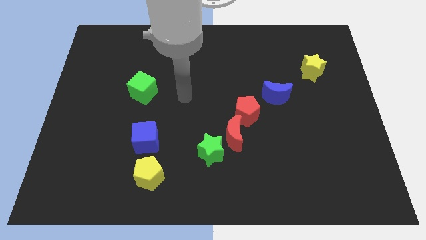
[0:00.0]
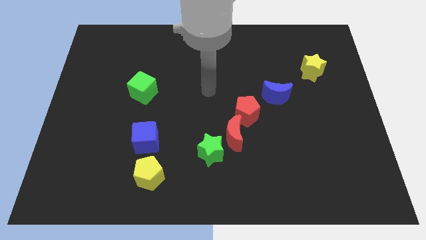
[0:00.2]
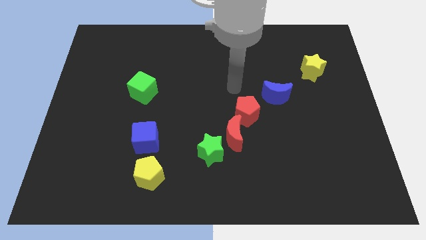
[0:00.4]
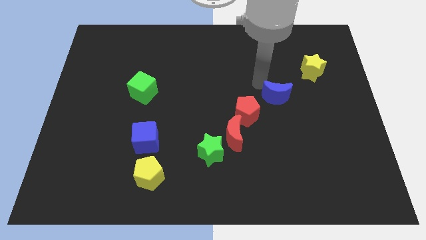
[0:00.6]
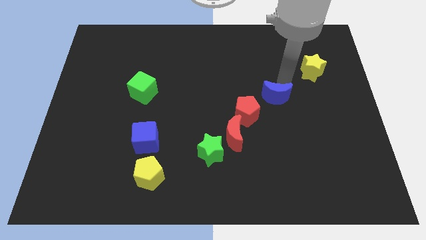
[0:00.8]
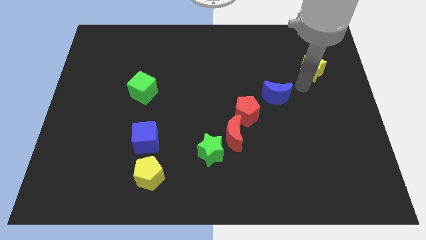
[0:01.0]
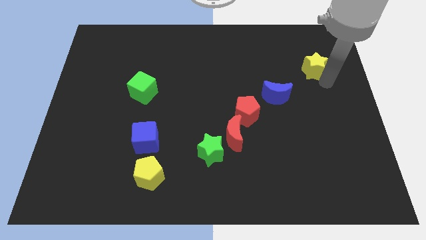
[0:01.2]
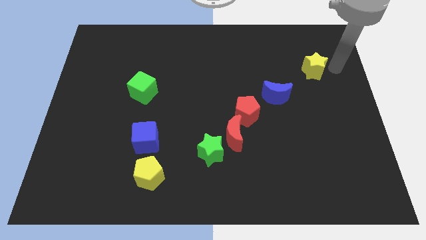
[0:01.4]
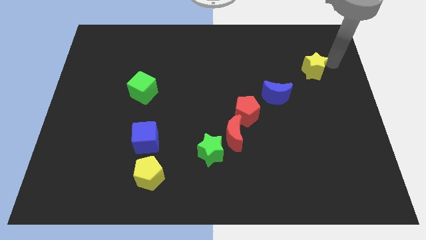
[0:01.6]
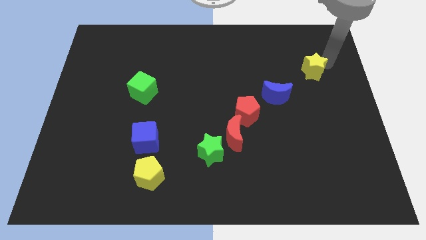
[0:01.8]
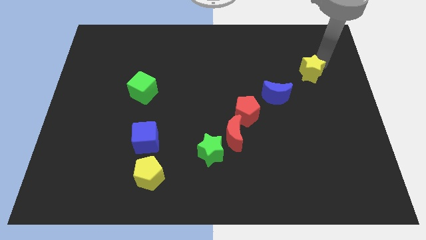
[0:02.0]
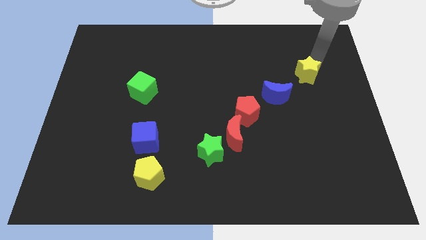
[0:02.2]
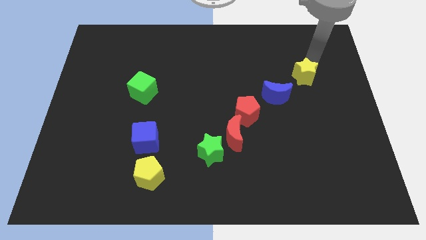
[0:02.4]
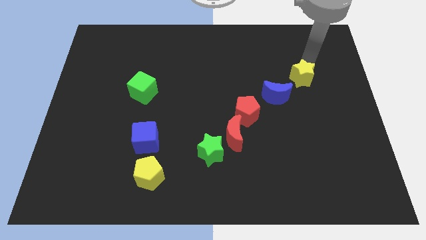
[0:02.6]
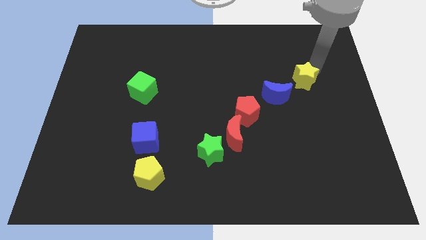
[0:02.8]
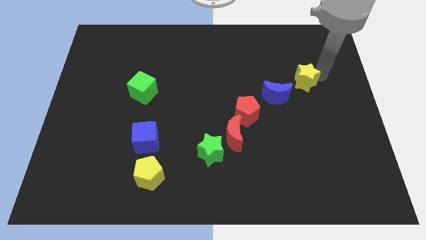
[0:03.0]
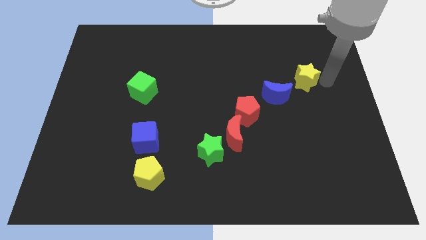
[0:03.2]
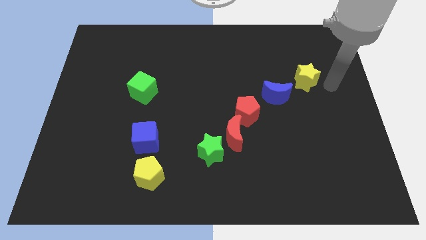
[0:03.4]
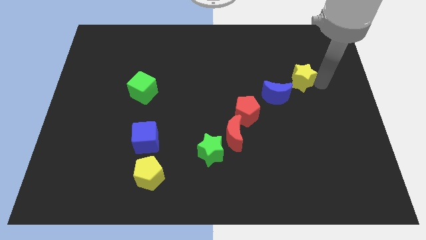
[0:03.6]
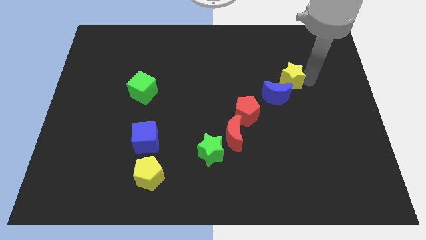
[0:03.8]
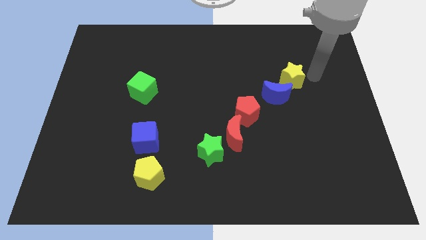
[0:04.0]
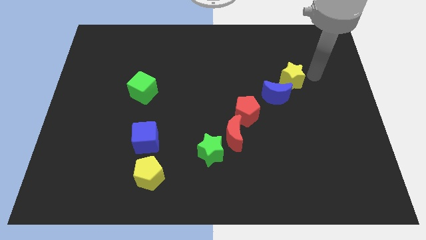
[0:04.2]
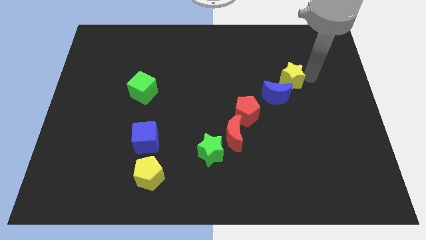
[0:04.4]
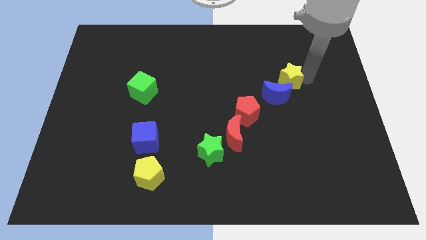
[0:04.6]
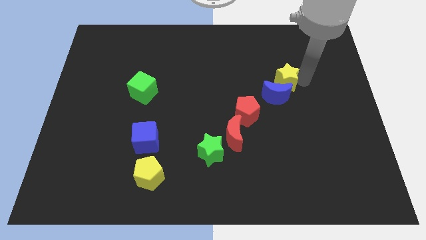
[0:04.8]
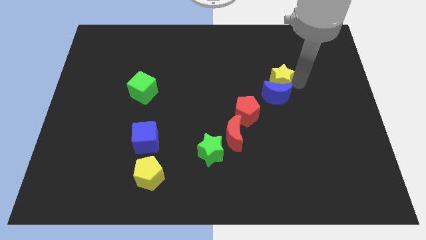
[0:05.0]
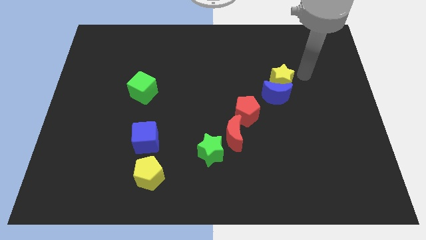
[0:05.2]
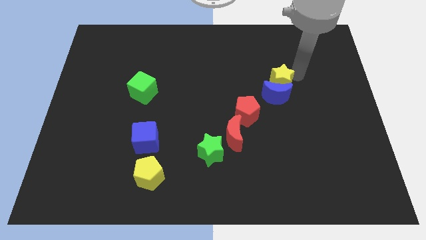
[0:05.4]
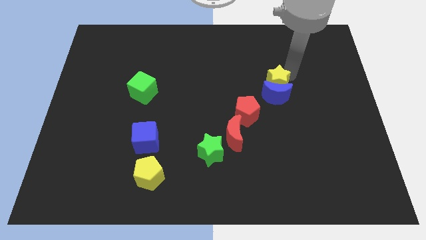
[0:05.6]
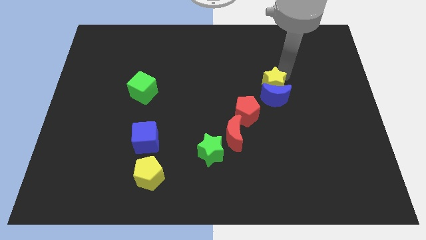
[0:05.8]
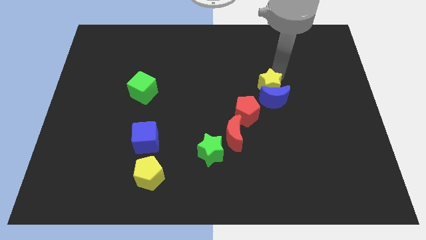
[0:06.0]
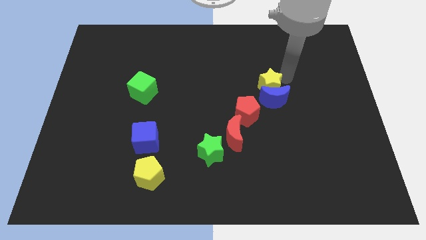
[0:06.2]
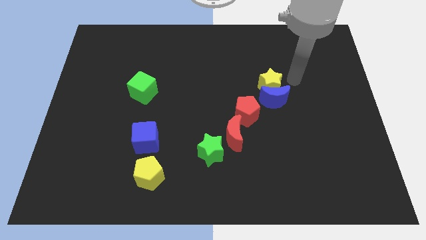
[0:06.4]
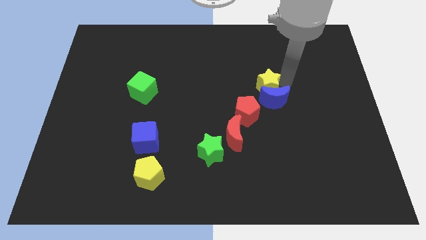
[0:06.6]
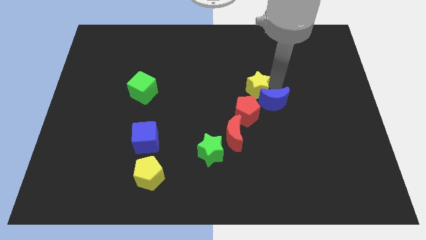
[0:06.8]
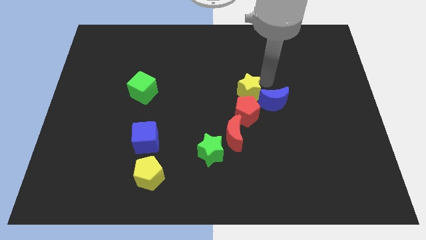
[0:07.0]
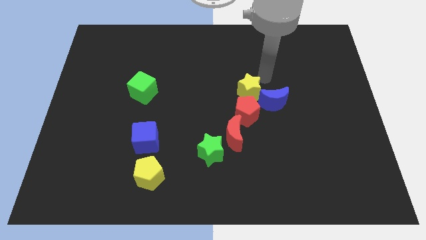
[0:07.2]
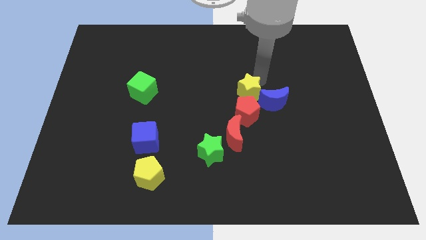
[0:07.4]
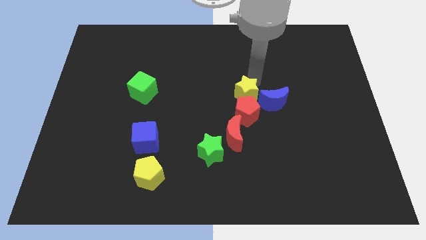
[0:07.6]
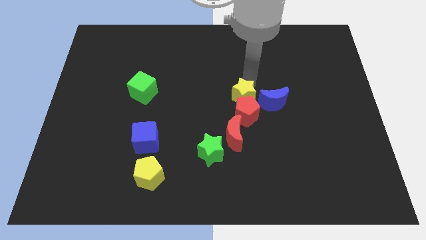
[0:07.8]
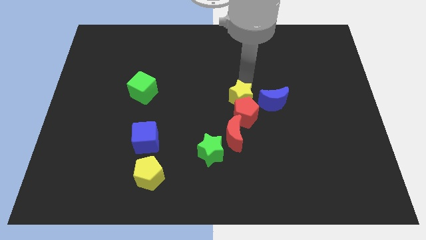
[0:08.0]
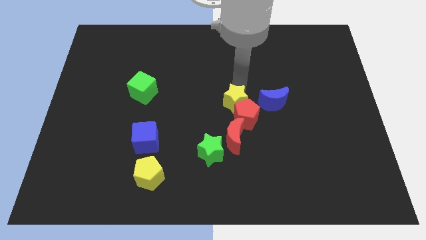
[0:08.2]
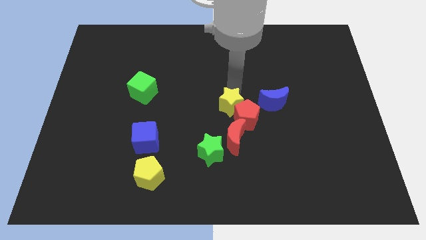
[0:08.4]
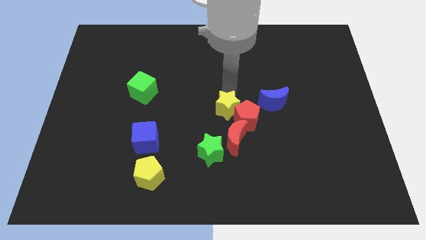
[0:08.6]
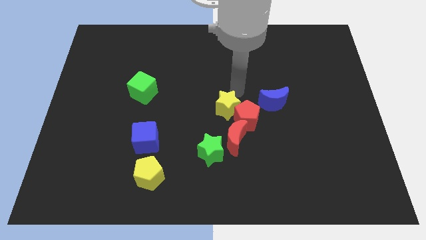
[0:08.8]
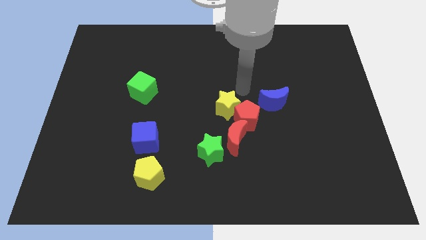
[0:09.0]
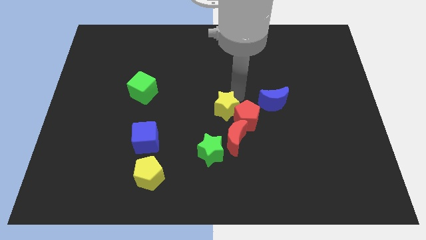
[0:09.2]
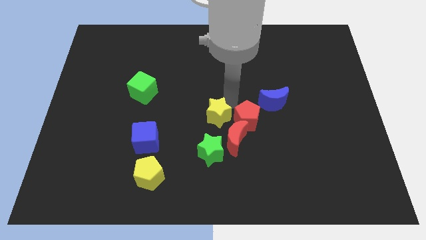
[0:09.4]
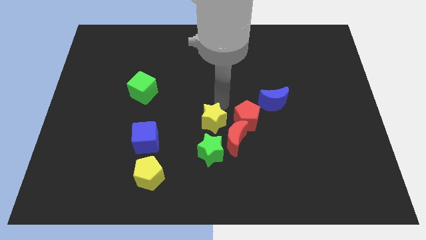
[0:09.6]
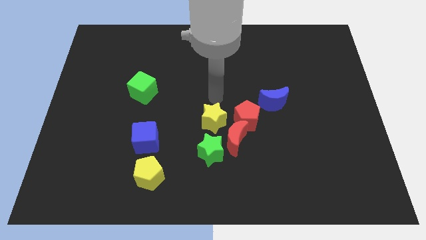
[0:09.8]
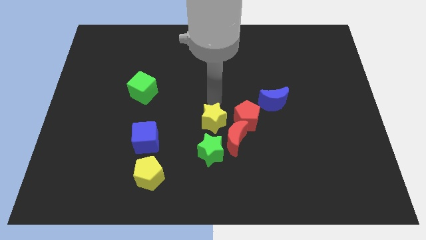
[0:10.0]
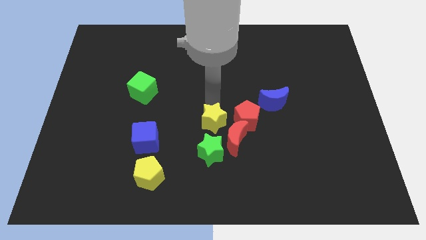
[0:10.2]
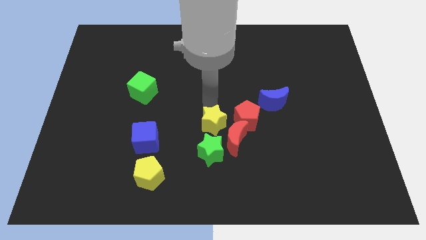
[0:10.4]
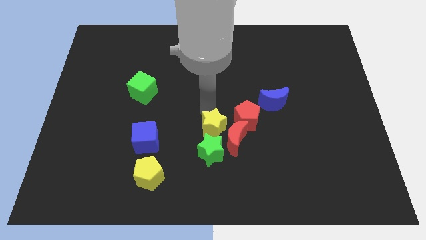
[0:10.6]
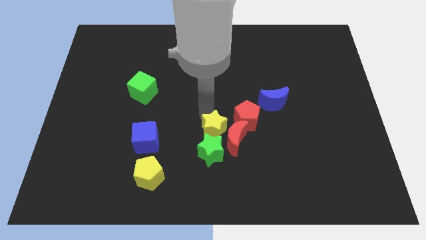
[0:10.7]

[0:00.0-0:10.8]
slide the yellow star next to the green star

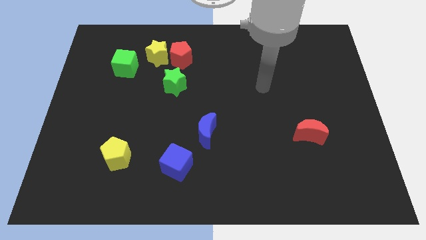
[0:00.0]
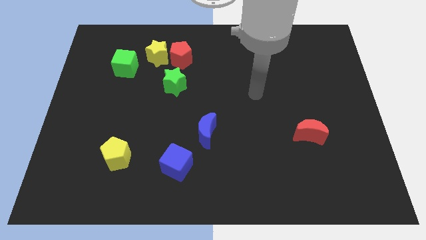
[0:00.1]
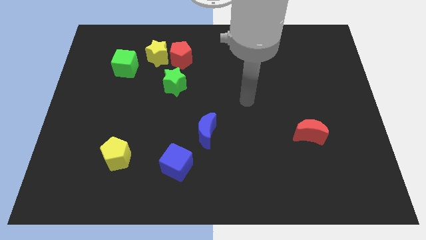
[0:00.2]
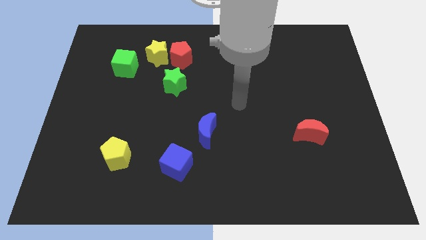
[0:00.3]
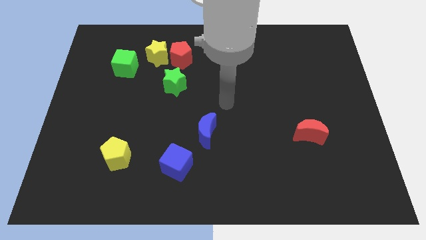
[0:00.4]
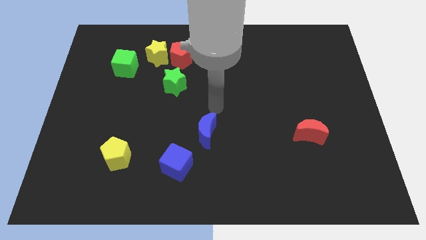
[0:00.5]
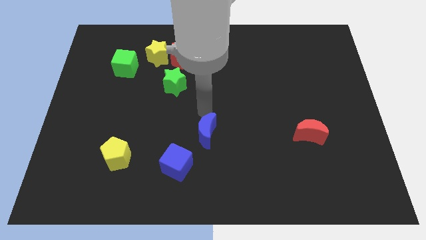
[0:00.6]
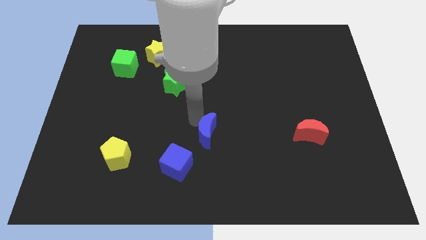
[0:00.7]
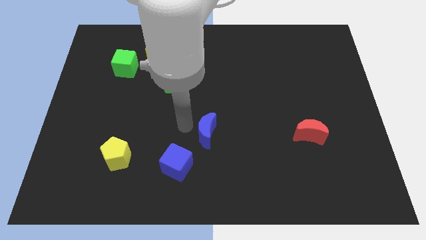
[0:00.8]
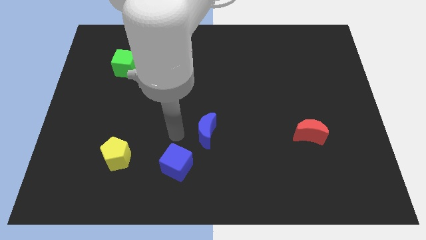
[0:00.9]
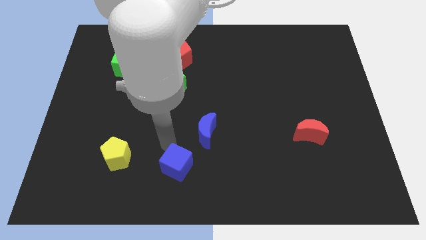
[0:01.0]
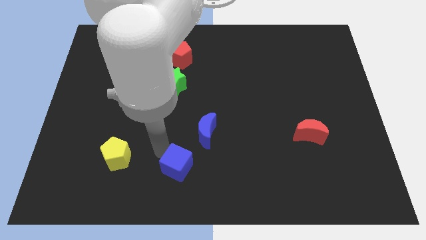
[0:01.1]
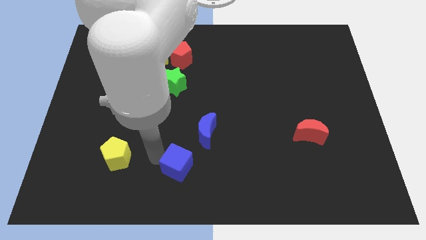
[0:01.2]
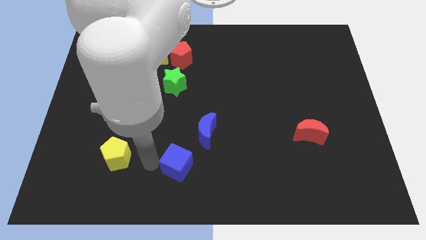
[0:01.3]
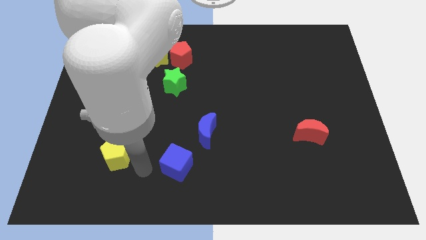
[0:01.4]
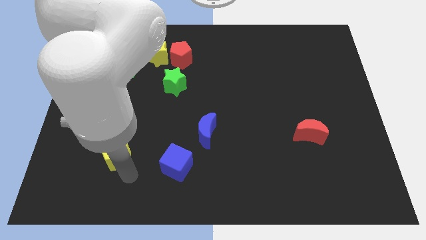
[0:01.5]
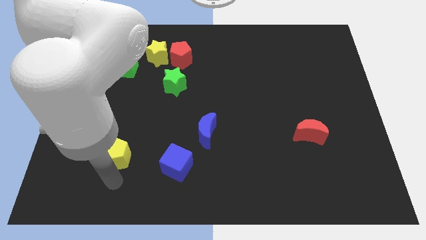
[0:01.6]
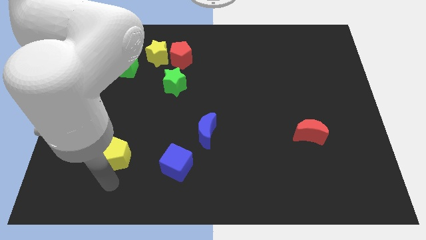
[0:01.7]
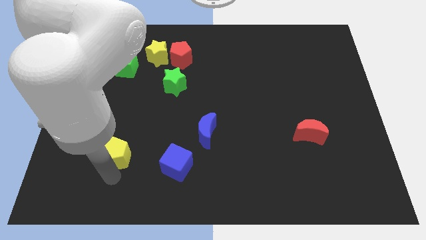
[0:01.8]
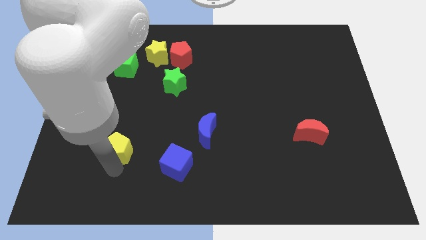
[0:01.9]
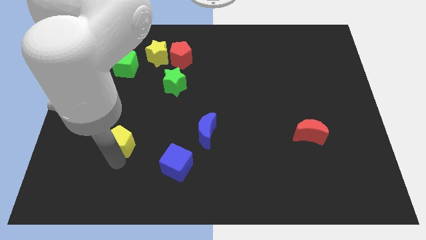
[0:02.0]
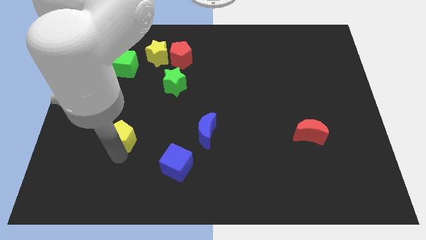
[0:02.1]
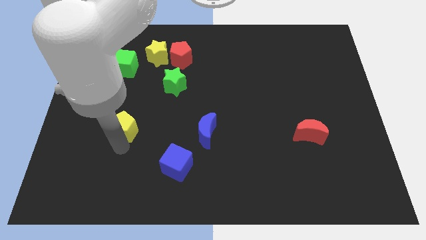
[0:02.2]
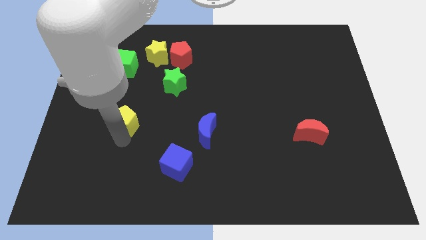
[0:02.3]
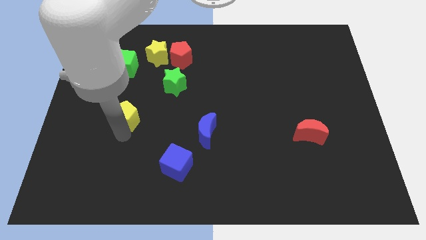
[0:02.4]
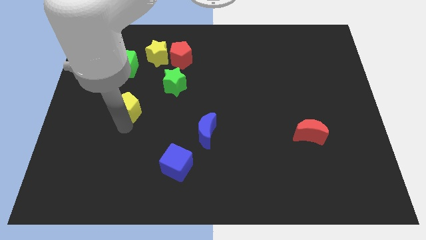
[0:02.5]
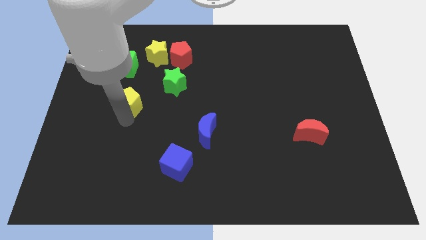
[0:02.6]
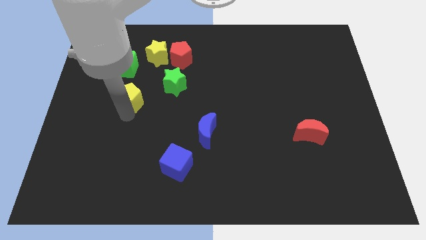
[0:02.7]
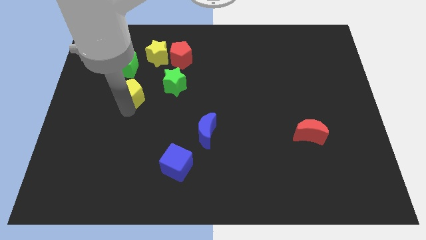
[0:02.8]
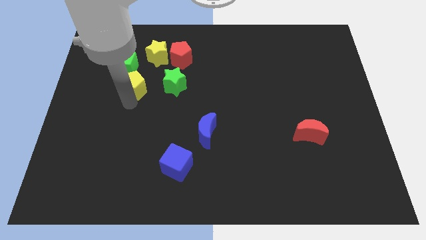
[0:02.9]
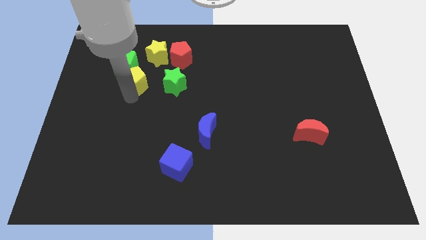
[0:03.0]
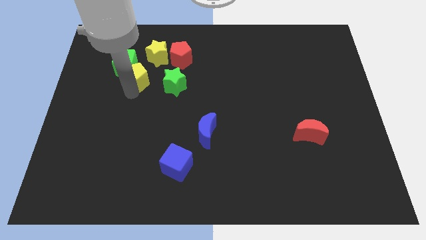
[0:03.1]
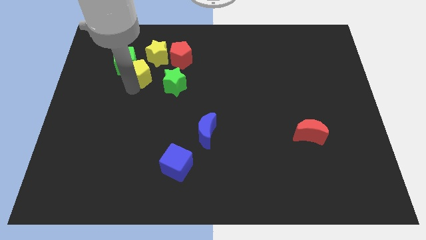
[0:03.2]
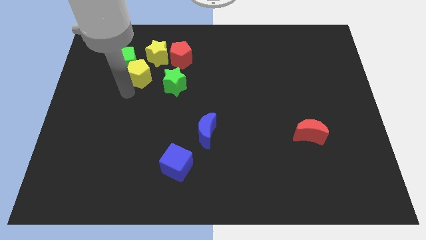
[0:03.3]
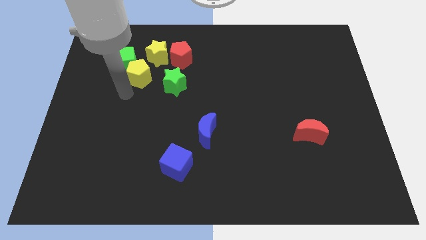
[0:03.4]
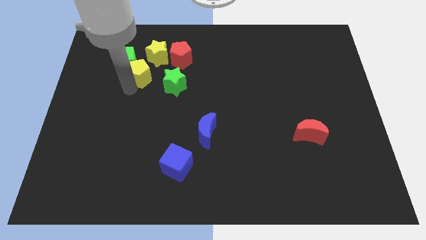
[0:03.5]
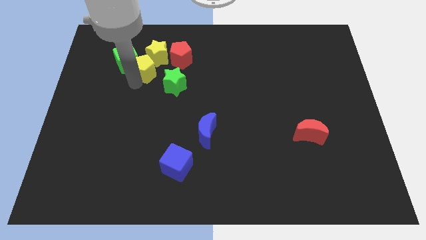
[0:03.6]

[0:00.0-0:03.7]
move the yellow pentagon close to the yellow star
